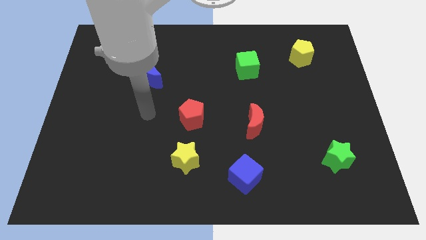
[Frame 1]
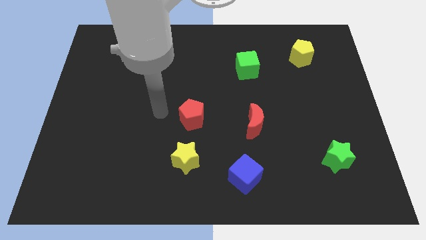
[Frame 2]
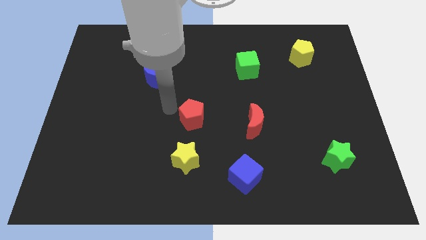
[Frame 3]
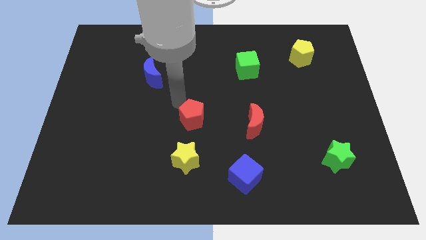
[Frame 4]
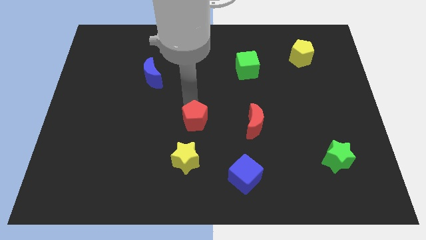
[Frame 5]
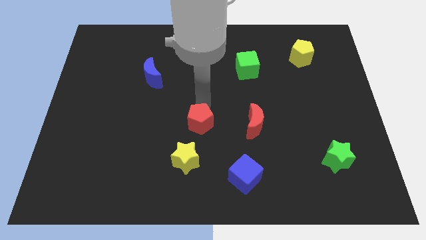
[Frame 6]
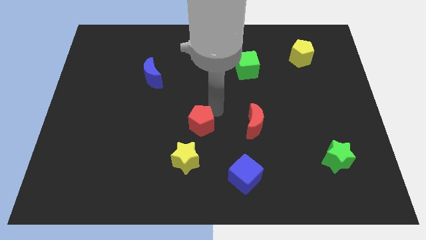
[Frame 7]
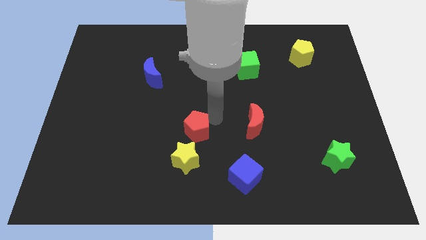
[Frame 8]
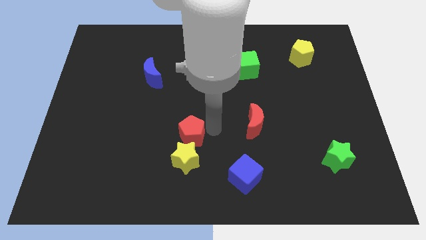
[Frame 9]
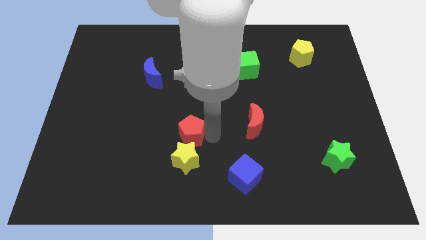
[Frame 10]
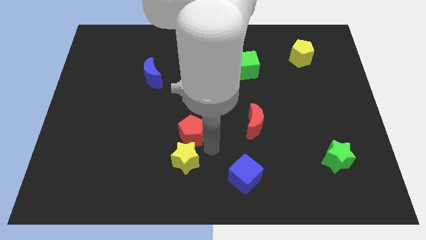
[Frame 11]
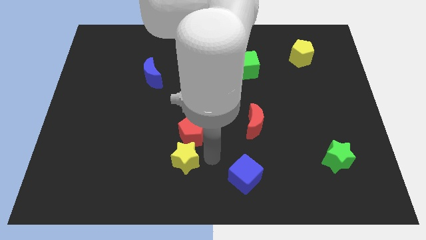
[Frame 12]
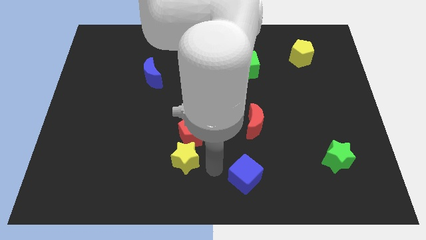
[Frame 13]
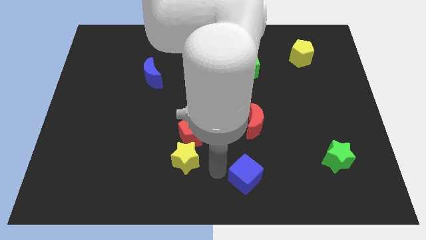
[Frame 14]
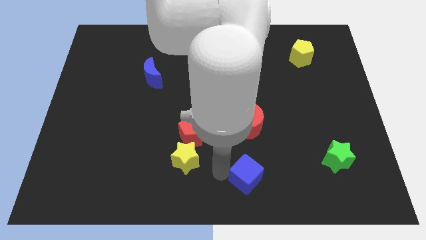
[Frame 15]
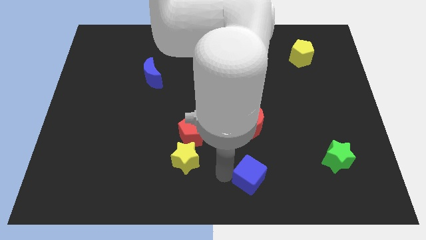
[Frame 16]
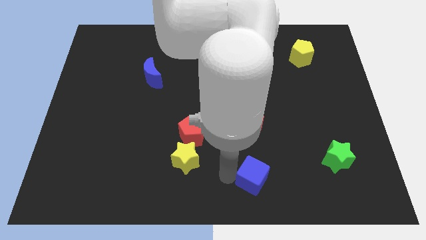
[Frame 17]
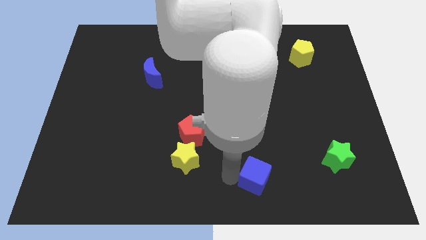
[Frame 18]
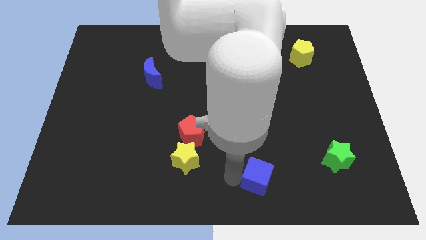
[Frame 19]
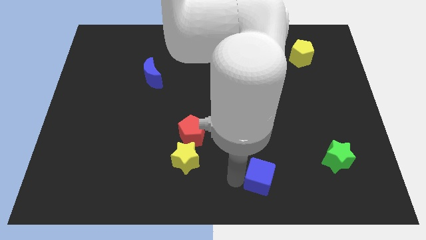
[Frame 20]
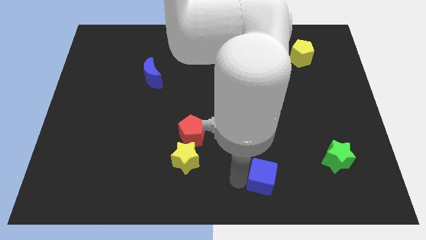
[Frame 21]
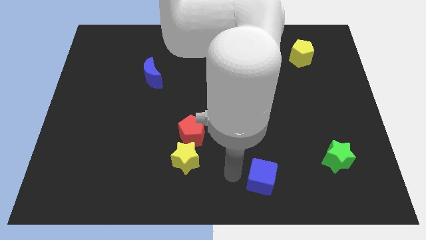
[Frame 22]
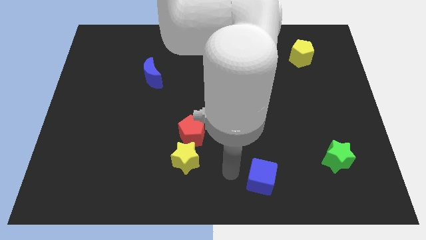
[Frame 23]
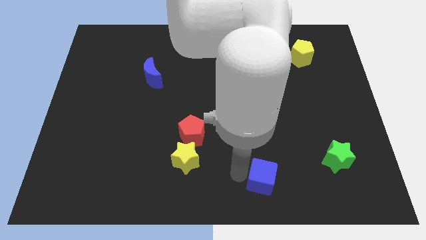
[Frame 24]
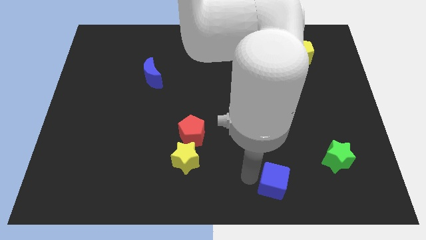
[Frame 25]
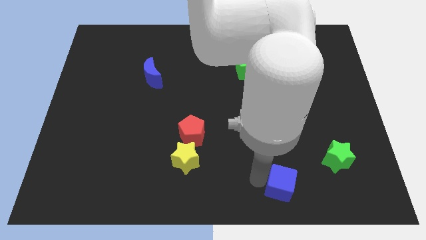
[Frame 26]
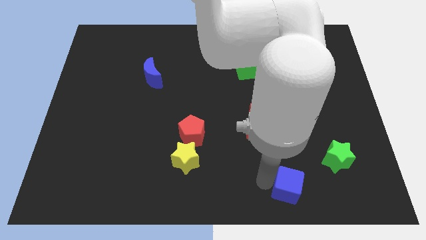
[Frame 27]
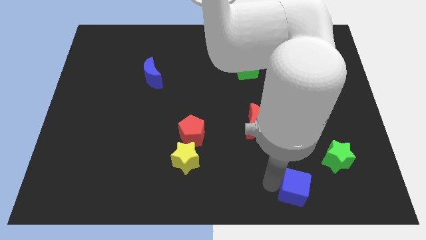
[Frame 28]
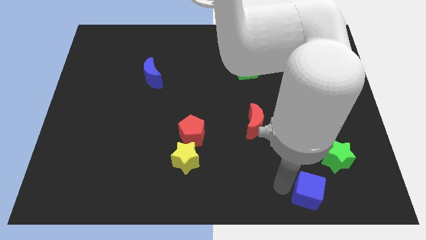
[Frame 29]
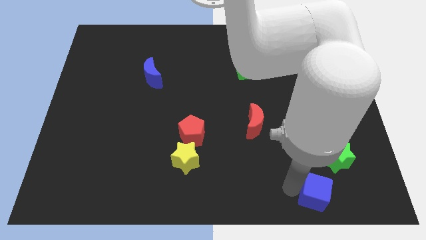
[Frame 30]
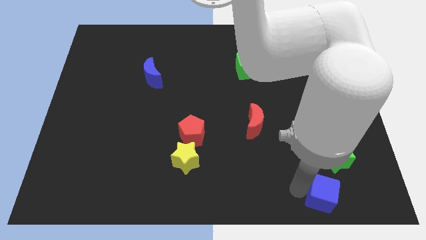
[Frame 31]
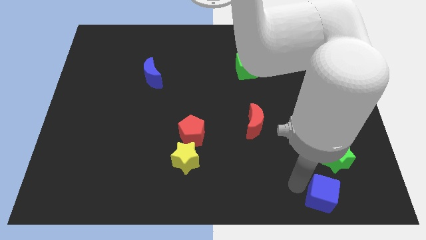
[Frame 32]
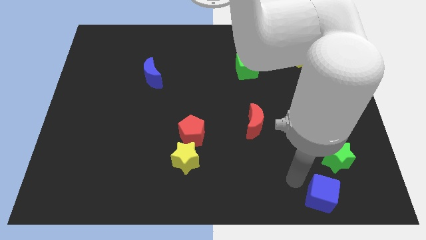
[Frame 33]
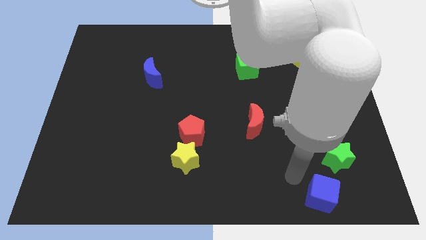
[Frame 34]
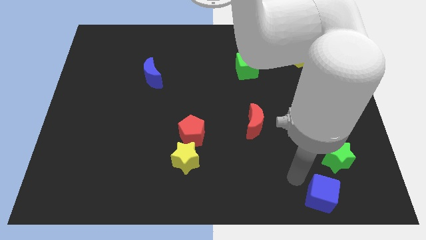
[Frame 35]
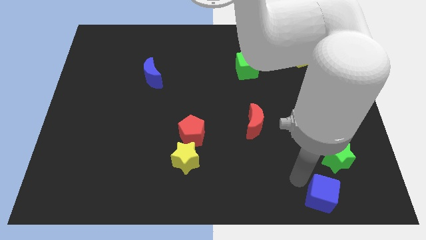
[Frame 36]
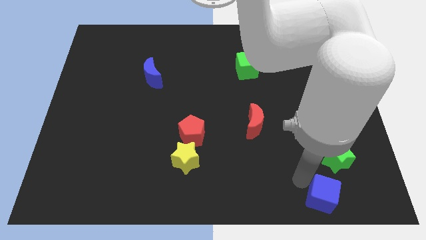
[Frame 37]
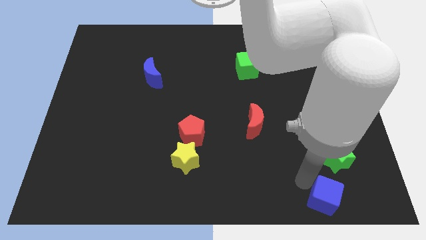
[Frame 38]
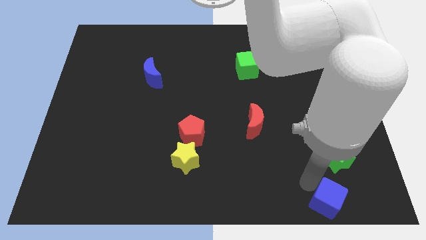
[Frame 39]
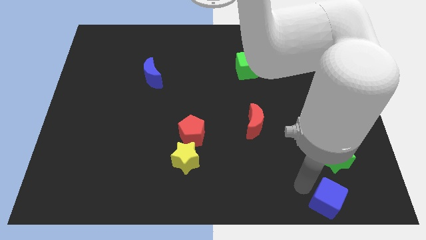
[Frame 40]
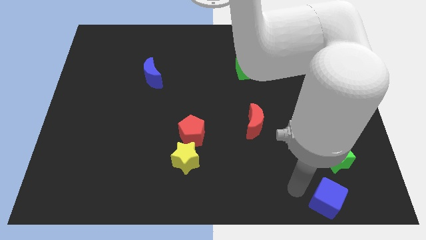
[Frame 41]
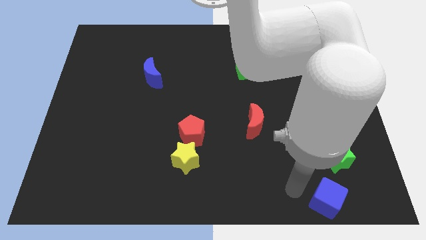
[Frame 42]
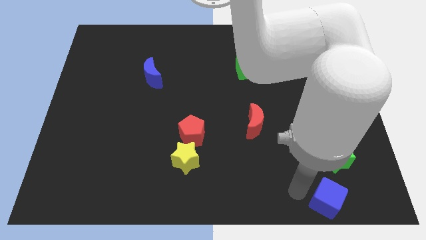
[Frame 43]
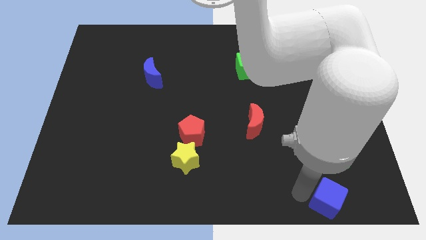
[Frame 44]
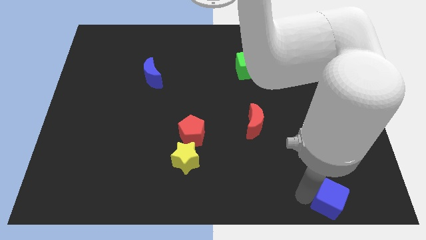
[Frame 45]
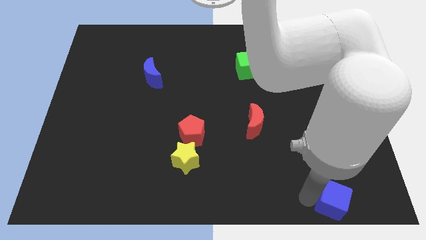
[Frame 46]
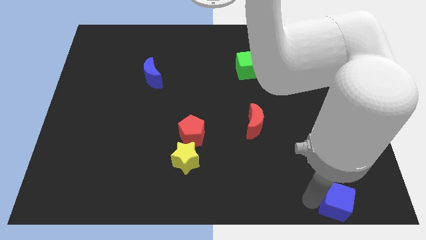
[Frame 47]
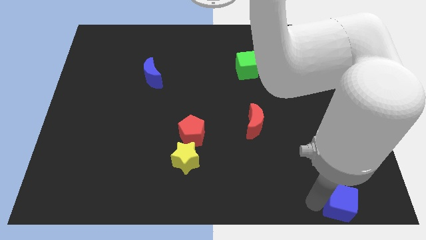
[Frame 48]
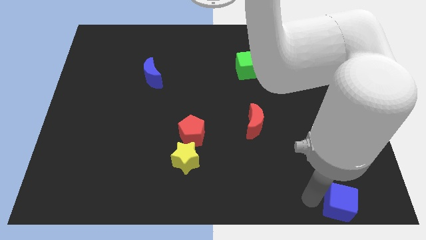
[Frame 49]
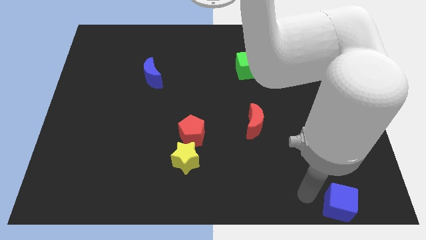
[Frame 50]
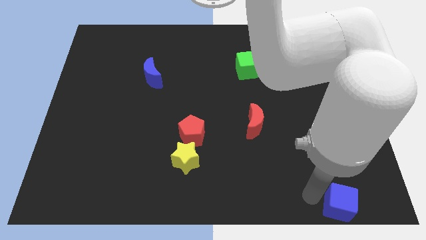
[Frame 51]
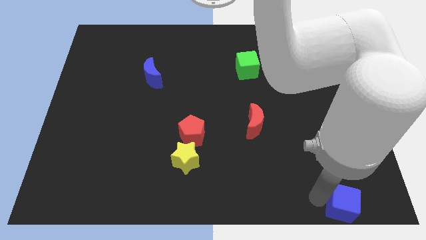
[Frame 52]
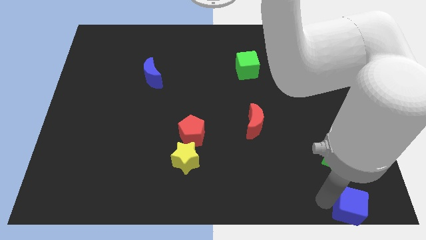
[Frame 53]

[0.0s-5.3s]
move the blue cube to the lower right corner
